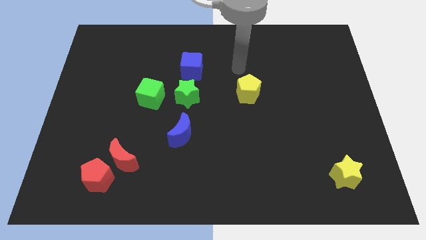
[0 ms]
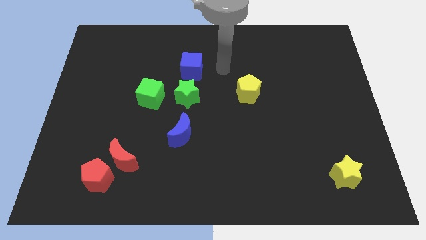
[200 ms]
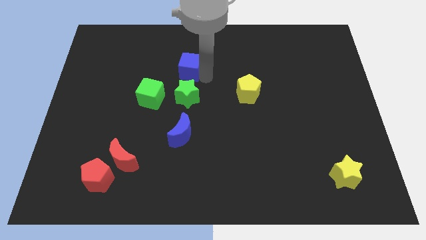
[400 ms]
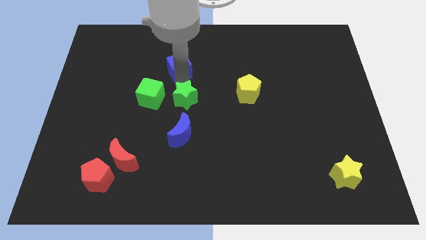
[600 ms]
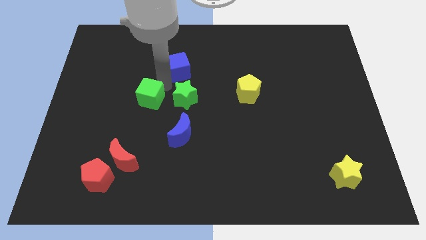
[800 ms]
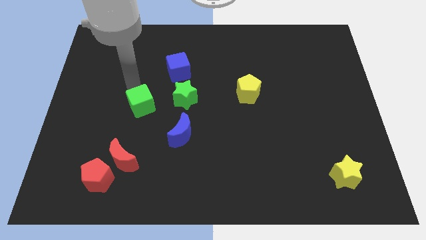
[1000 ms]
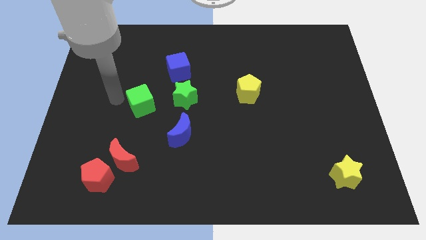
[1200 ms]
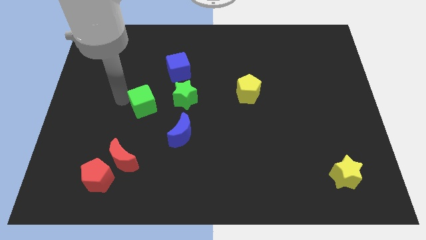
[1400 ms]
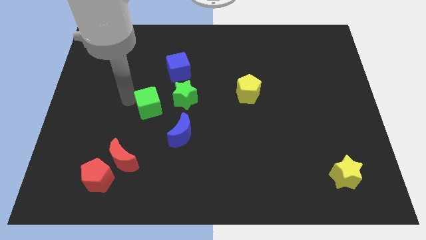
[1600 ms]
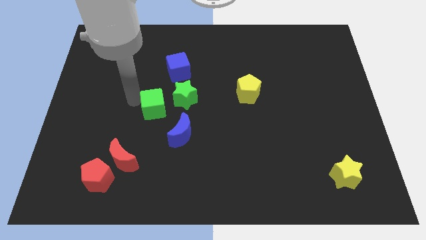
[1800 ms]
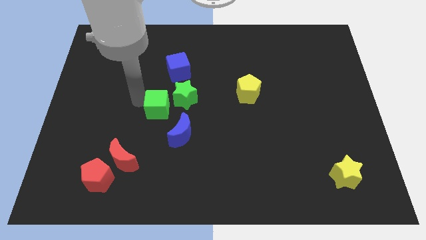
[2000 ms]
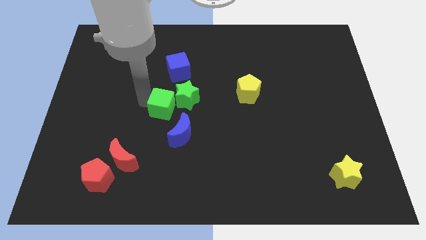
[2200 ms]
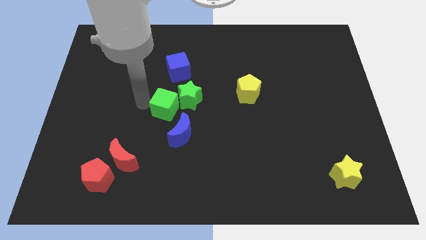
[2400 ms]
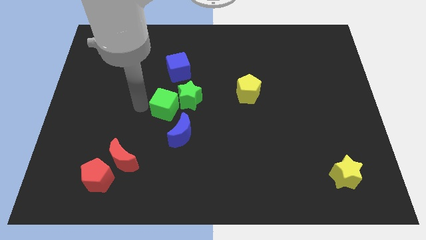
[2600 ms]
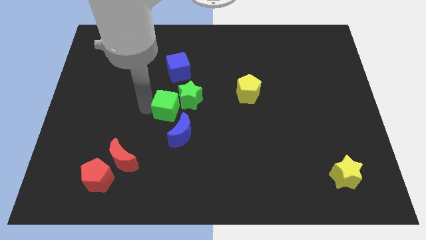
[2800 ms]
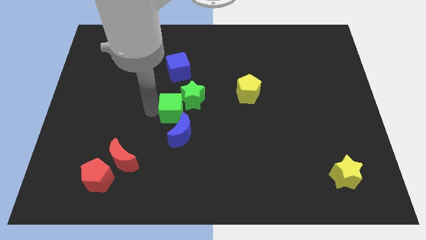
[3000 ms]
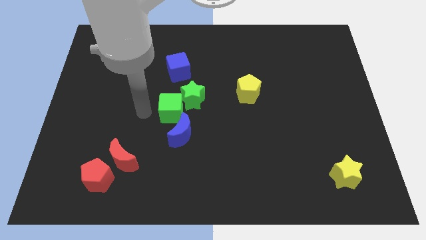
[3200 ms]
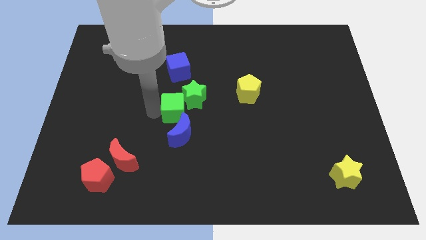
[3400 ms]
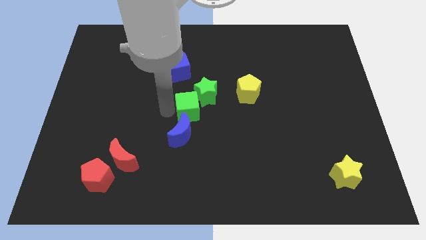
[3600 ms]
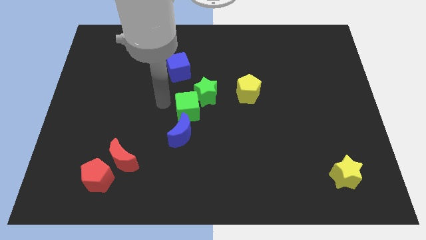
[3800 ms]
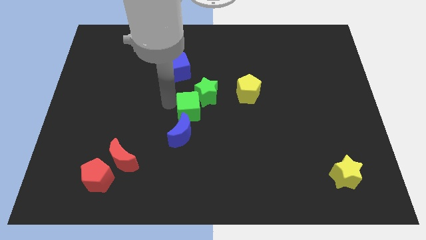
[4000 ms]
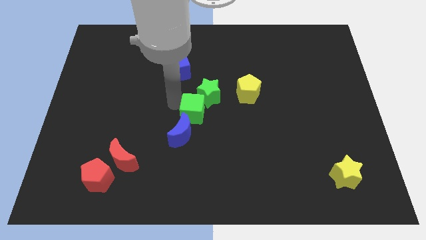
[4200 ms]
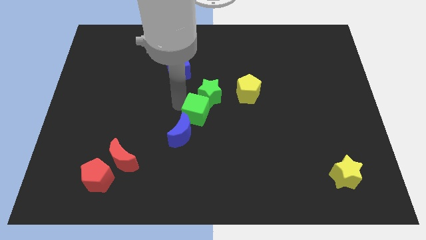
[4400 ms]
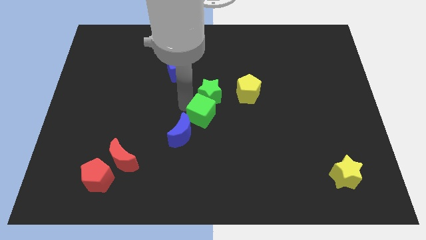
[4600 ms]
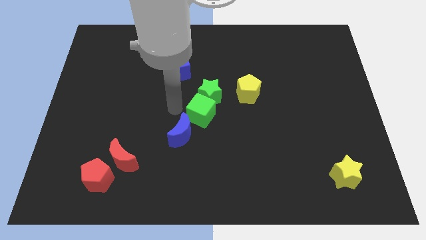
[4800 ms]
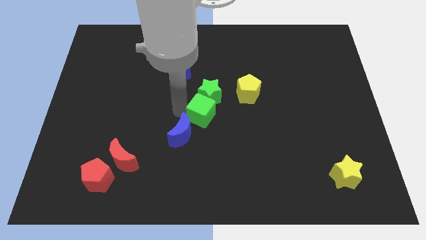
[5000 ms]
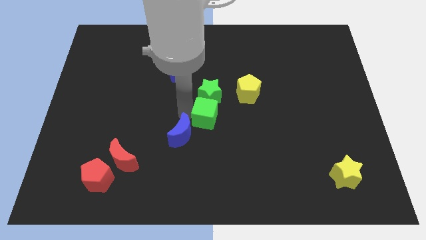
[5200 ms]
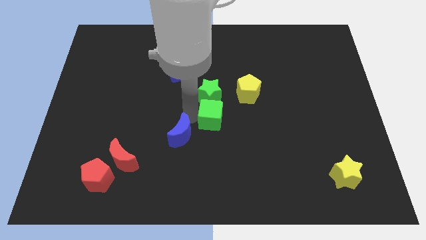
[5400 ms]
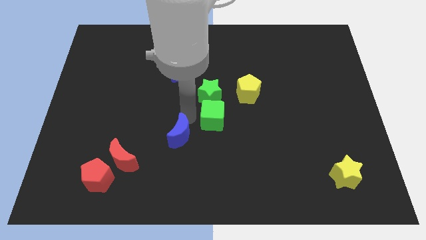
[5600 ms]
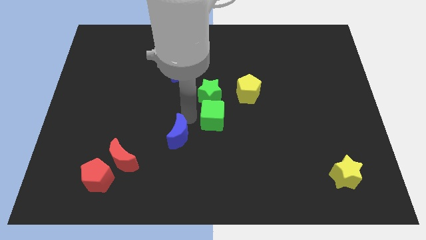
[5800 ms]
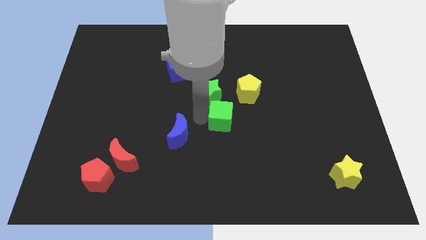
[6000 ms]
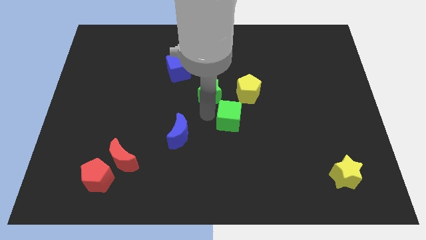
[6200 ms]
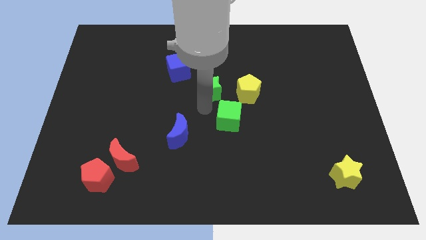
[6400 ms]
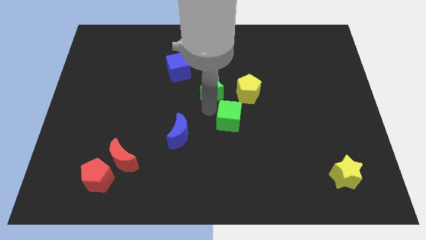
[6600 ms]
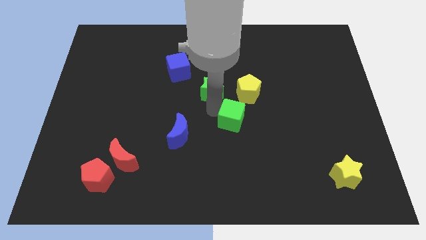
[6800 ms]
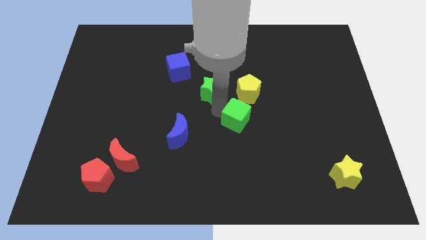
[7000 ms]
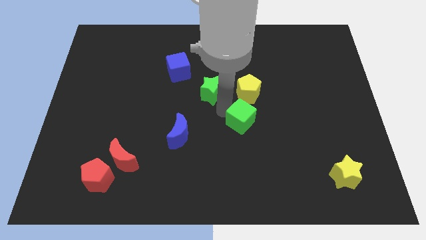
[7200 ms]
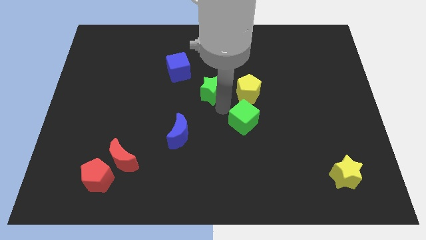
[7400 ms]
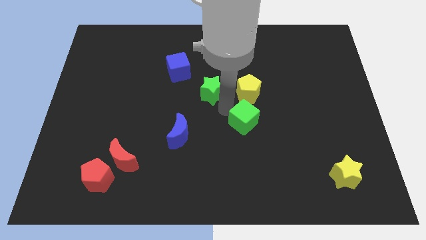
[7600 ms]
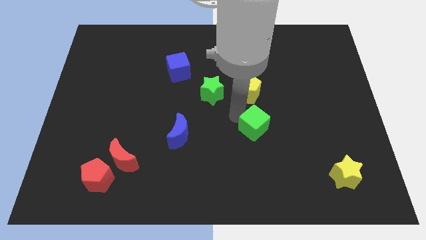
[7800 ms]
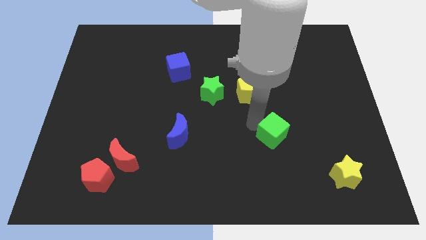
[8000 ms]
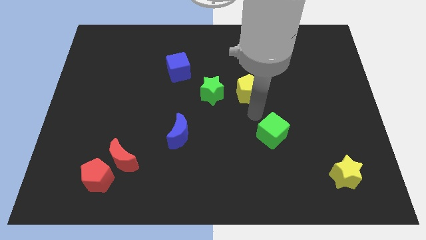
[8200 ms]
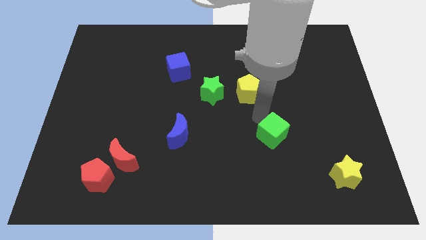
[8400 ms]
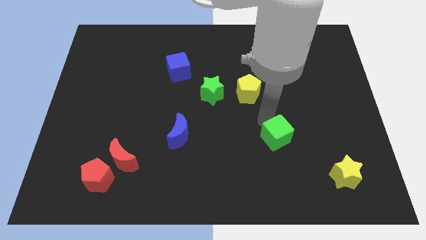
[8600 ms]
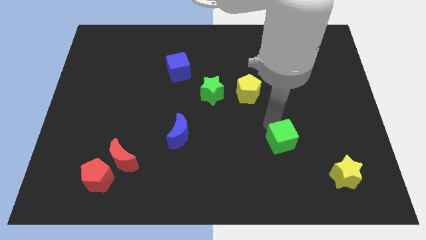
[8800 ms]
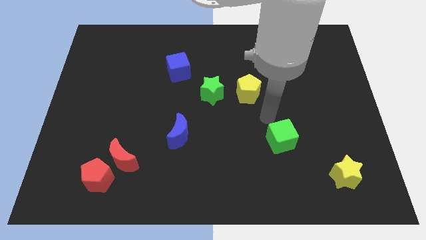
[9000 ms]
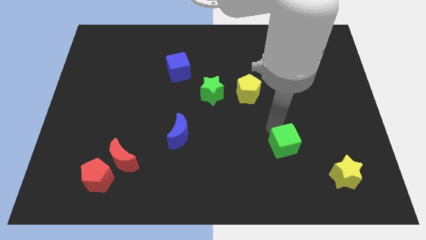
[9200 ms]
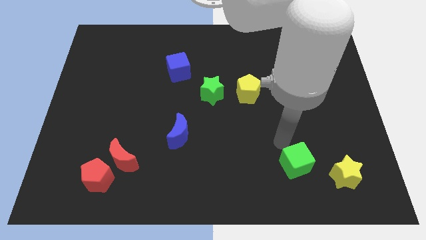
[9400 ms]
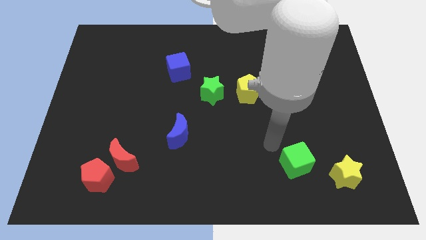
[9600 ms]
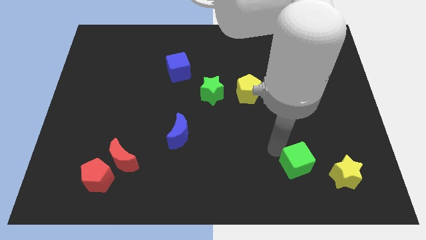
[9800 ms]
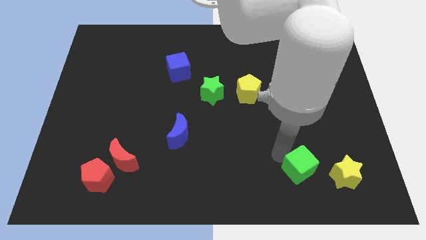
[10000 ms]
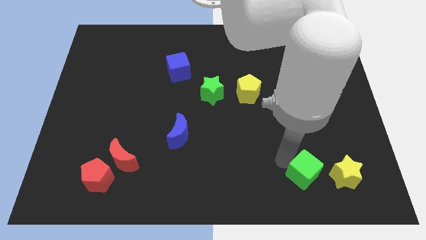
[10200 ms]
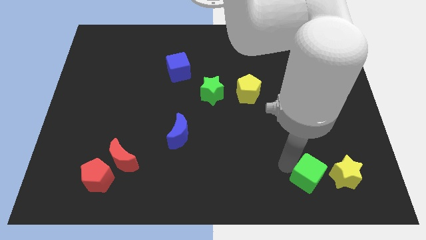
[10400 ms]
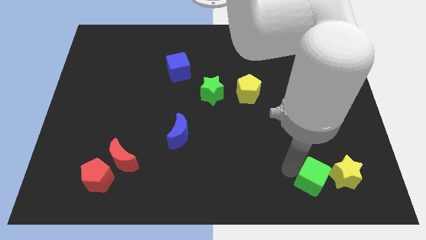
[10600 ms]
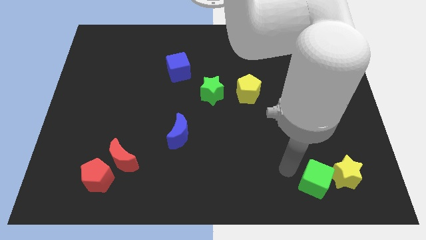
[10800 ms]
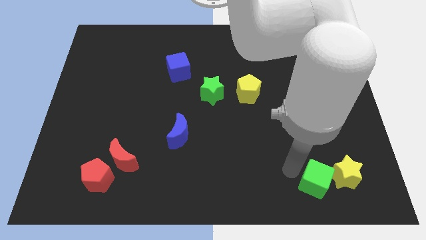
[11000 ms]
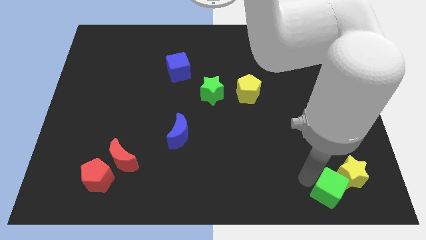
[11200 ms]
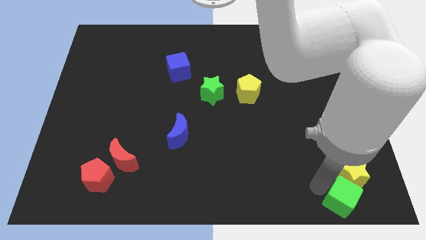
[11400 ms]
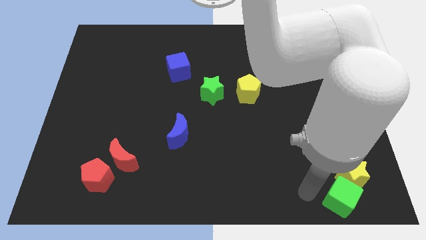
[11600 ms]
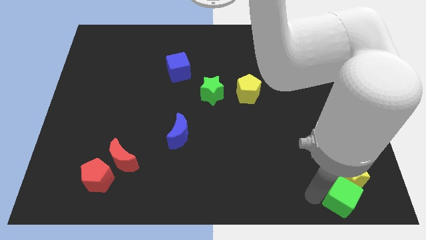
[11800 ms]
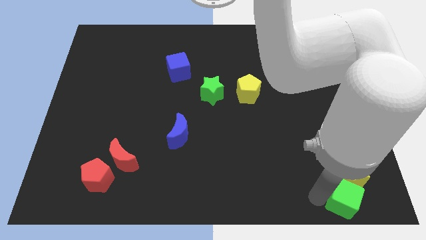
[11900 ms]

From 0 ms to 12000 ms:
put the green cube to the bottom right of the board
